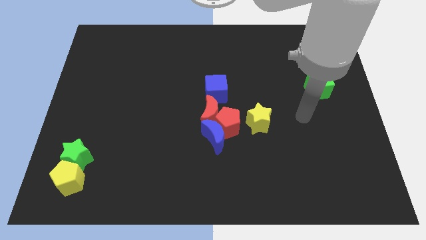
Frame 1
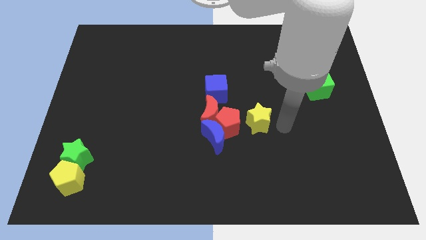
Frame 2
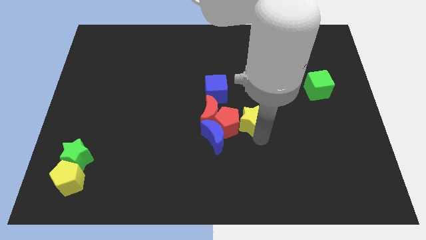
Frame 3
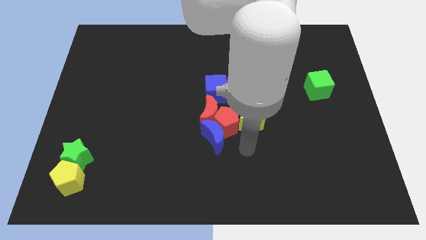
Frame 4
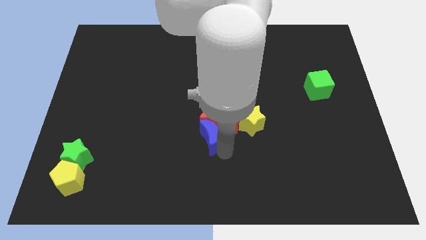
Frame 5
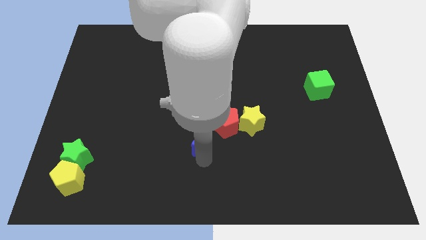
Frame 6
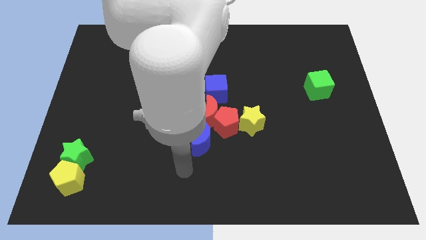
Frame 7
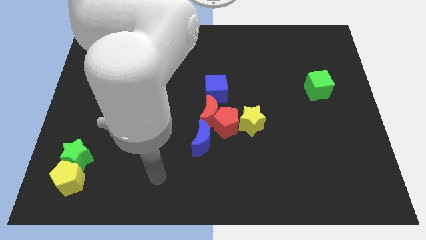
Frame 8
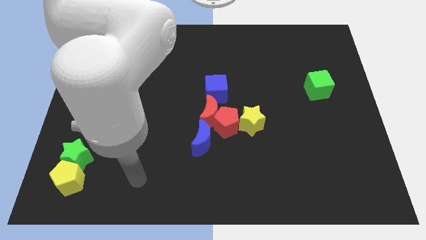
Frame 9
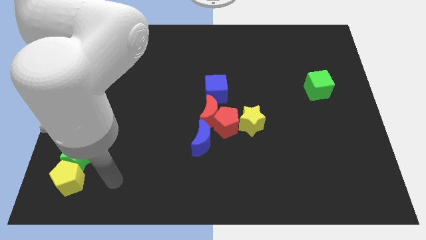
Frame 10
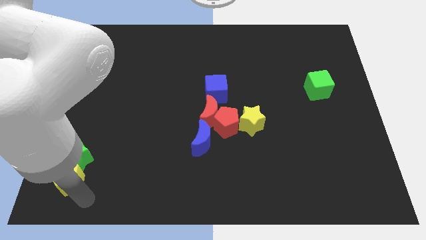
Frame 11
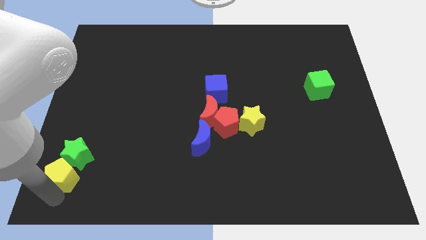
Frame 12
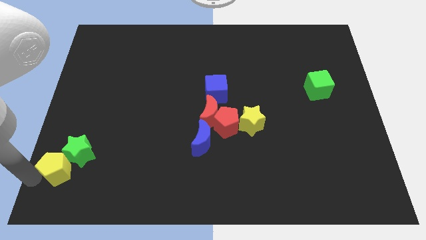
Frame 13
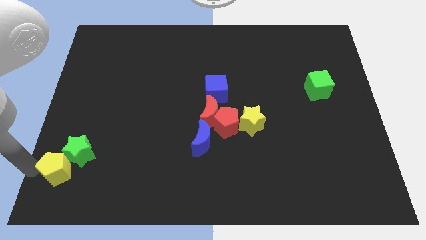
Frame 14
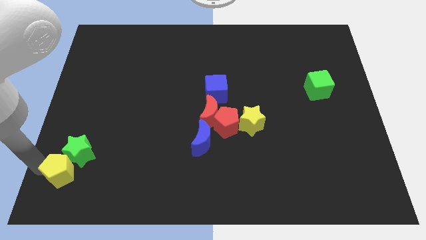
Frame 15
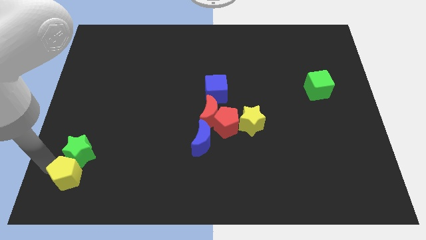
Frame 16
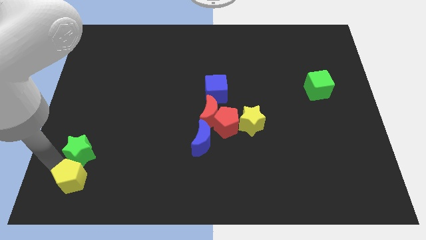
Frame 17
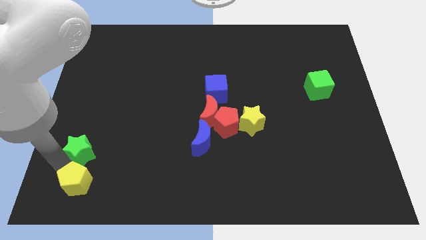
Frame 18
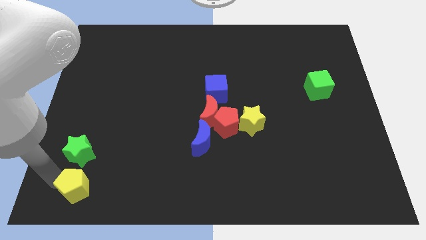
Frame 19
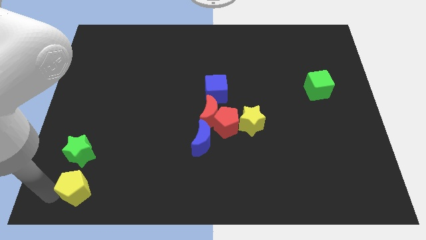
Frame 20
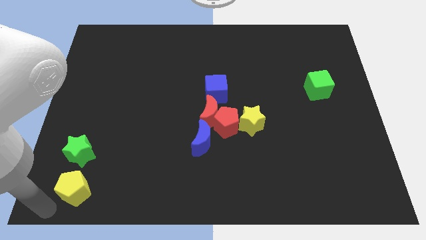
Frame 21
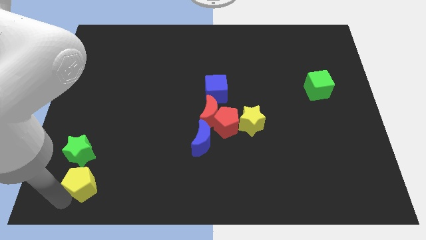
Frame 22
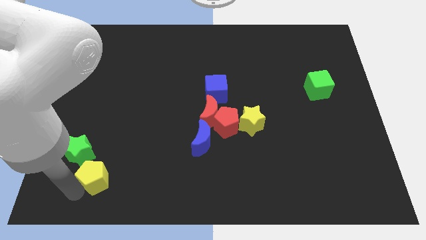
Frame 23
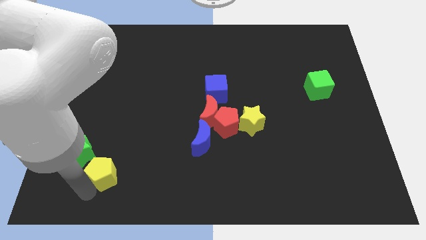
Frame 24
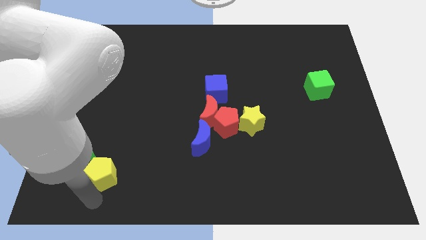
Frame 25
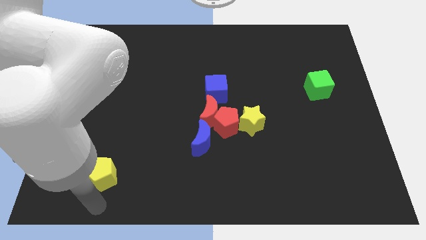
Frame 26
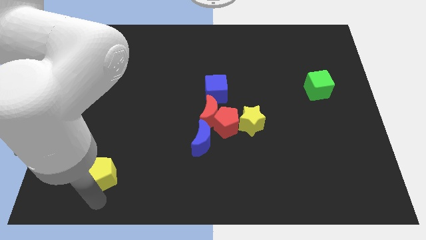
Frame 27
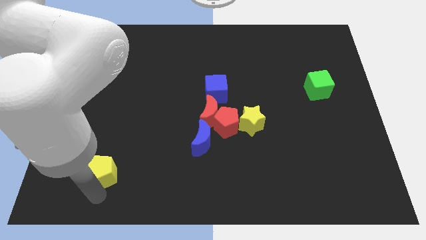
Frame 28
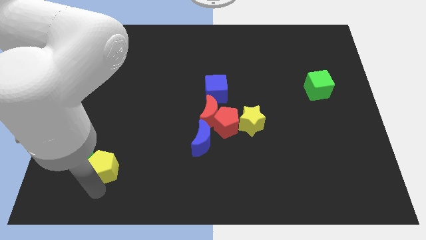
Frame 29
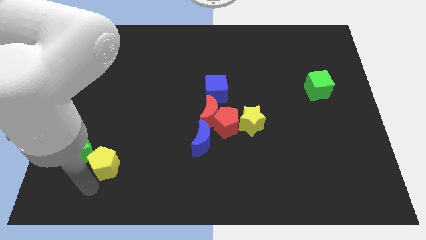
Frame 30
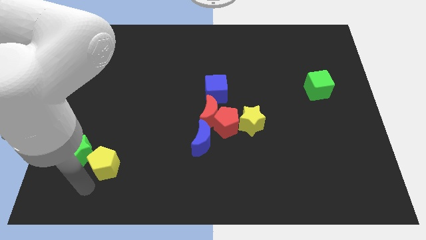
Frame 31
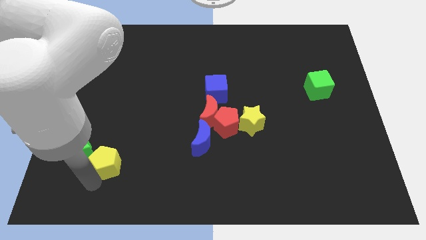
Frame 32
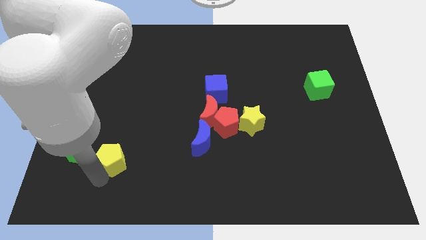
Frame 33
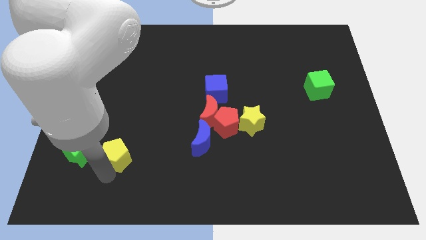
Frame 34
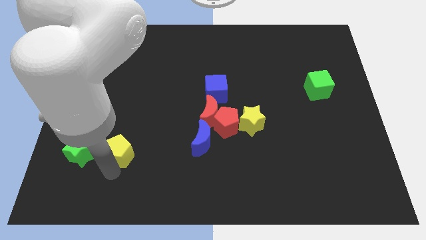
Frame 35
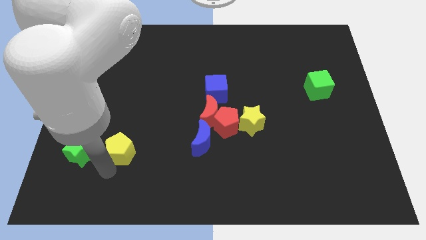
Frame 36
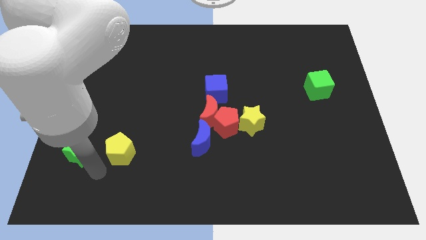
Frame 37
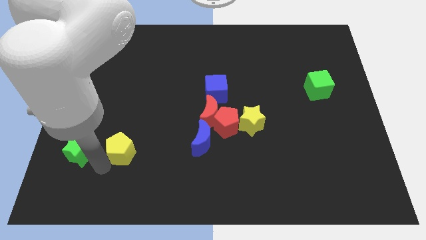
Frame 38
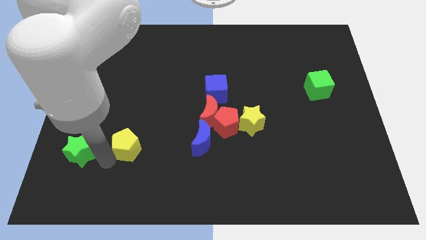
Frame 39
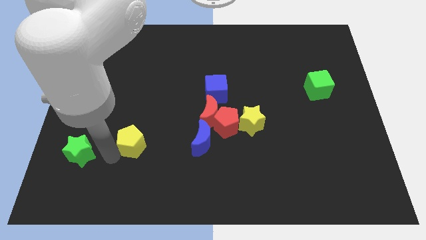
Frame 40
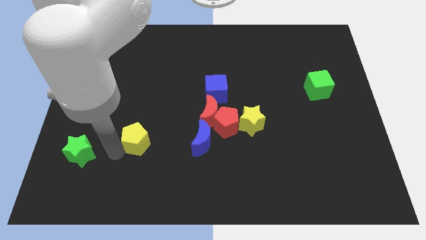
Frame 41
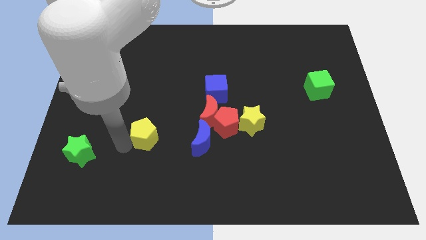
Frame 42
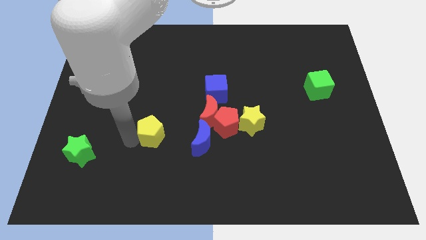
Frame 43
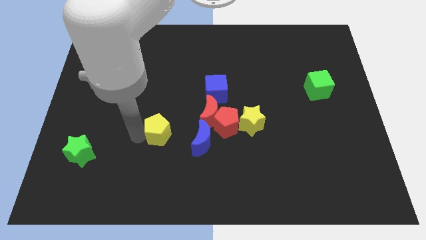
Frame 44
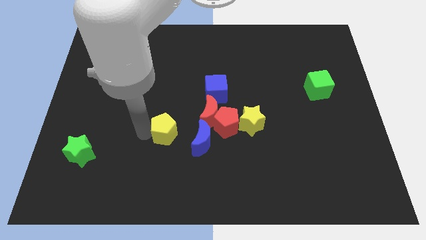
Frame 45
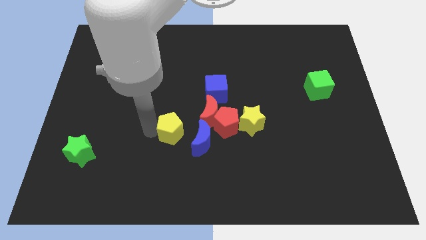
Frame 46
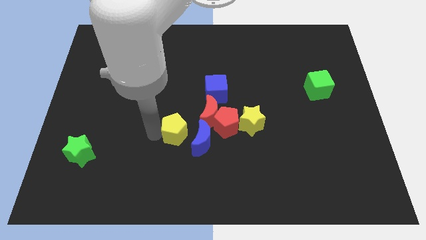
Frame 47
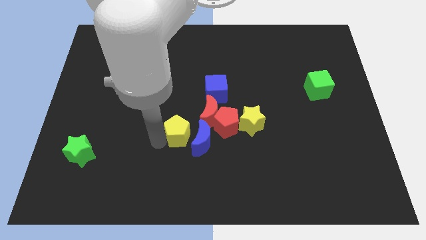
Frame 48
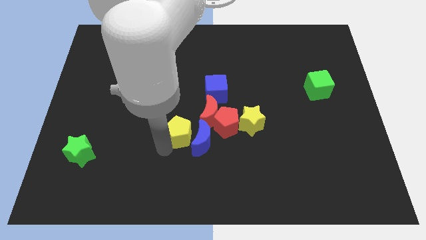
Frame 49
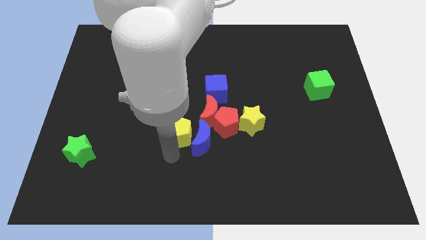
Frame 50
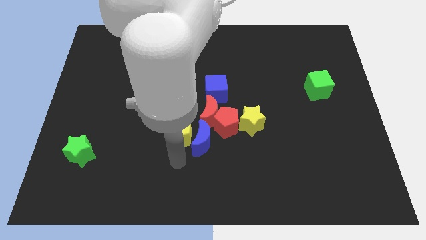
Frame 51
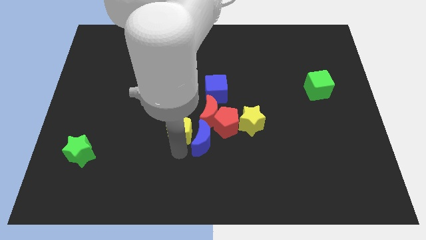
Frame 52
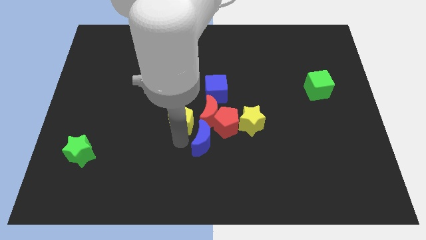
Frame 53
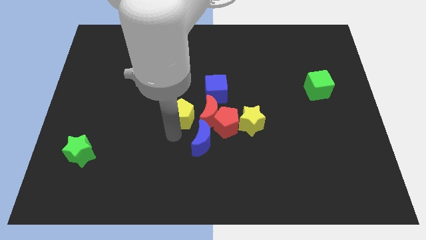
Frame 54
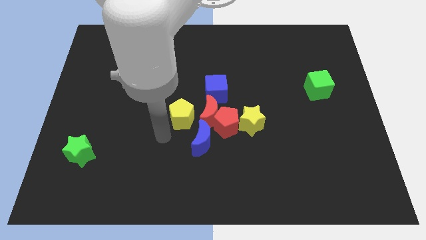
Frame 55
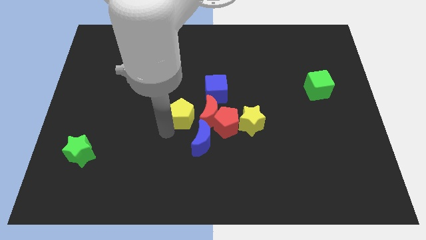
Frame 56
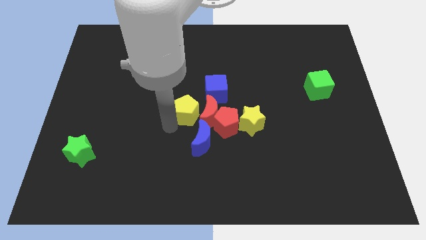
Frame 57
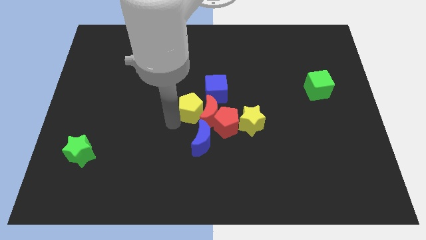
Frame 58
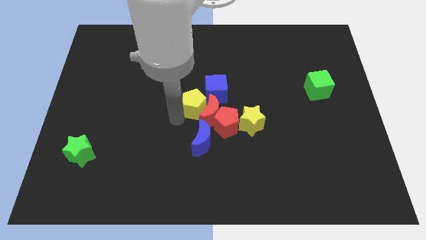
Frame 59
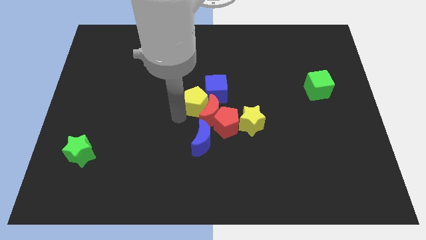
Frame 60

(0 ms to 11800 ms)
put the yellow pentagon close to the blue cube
